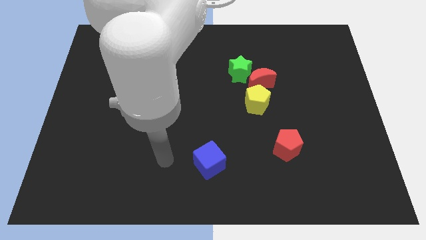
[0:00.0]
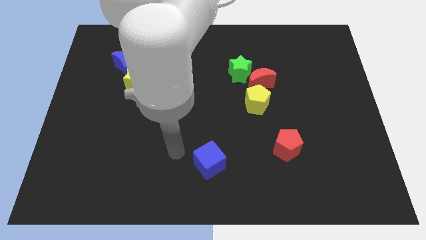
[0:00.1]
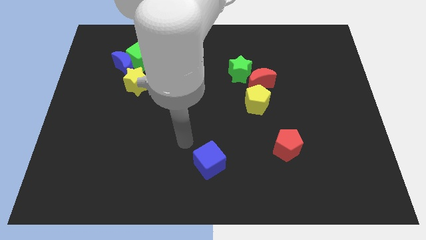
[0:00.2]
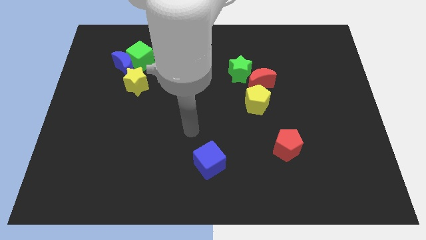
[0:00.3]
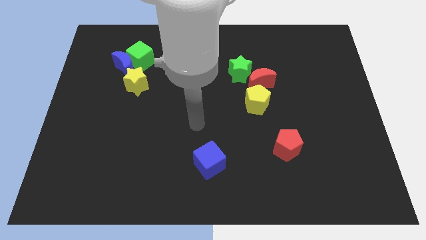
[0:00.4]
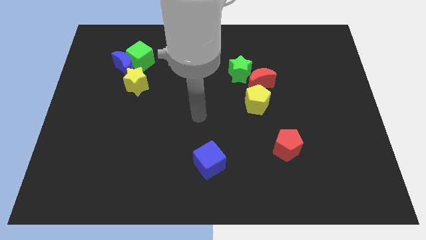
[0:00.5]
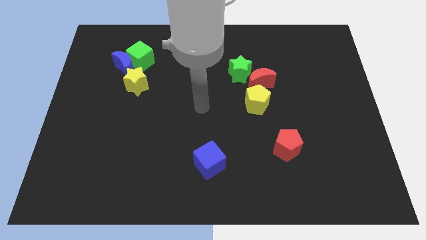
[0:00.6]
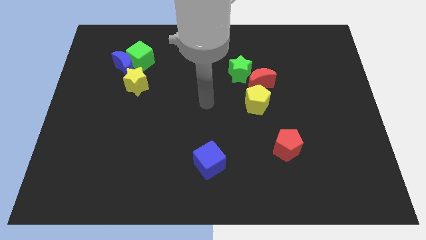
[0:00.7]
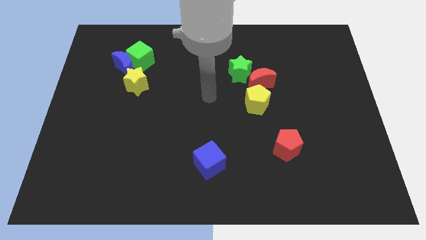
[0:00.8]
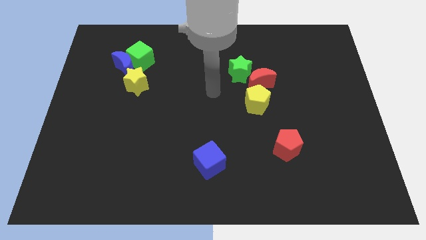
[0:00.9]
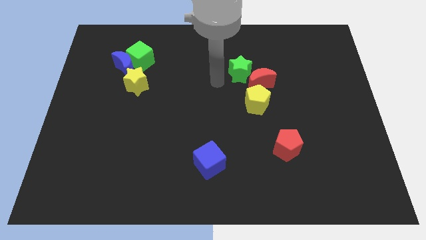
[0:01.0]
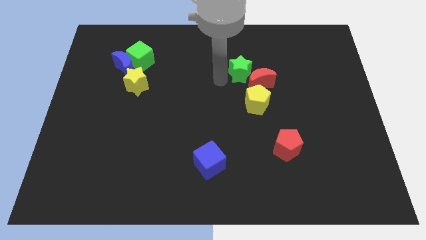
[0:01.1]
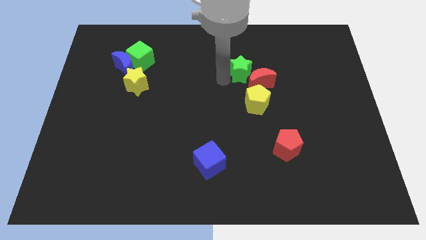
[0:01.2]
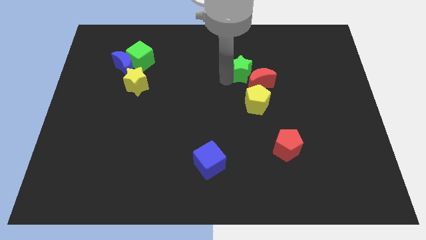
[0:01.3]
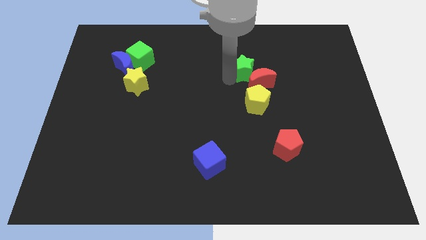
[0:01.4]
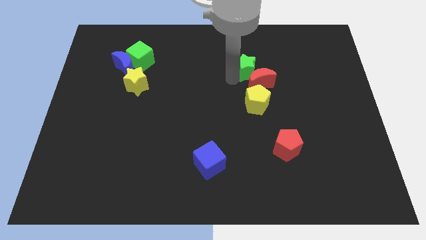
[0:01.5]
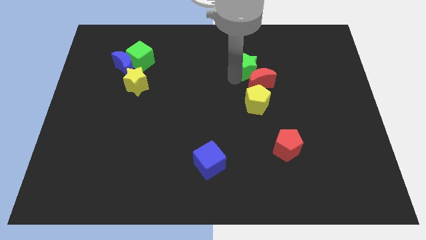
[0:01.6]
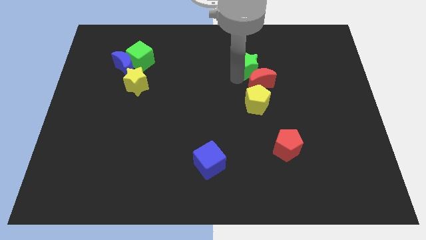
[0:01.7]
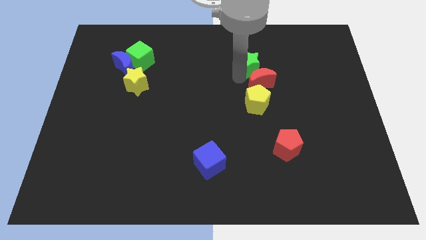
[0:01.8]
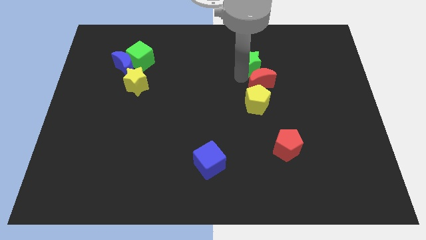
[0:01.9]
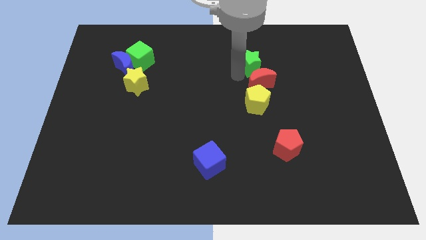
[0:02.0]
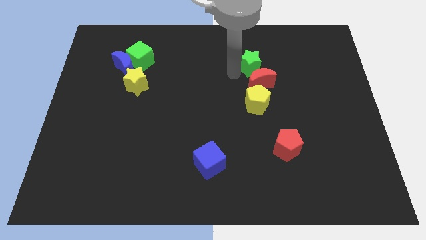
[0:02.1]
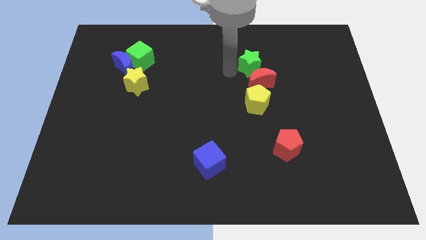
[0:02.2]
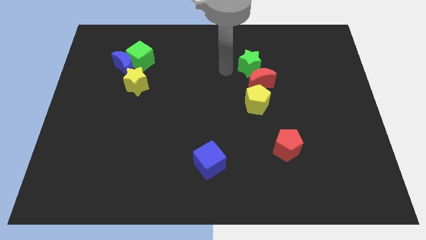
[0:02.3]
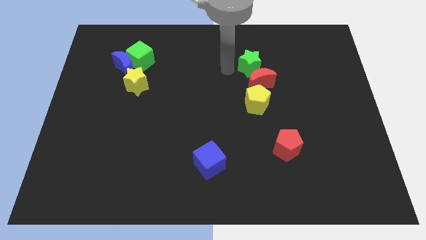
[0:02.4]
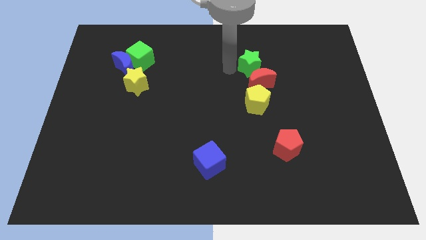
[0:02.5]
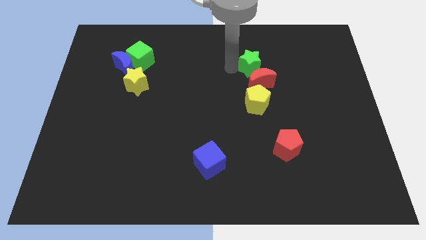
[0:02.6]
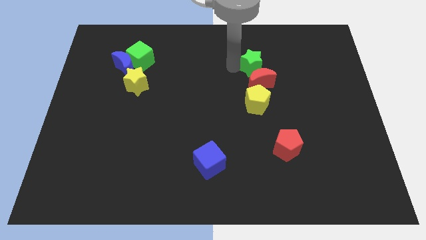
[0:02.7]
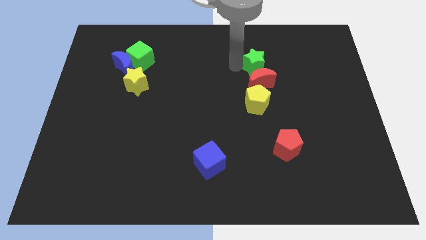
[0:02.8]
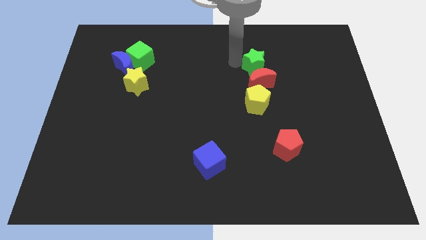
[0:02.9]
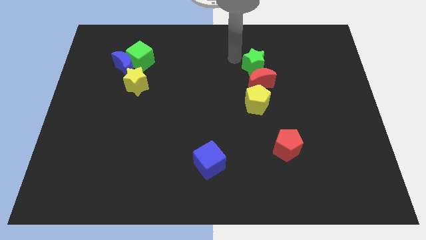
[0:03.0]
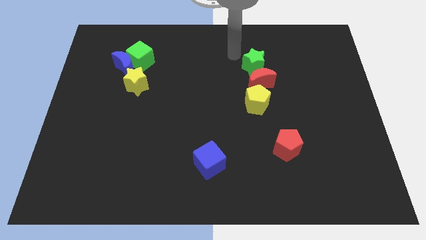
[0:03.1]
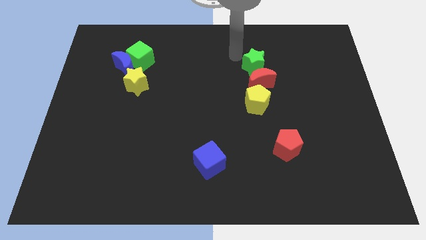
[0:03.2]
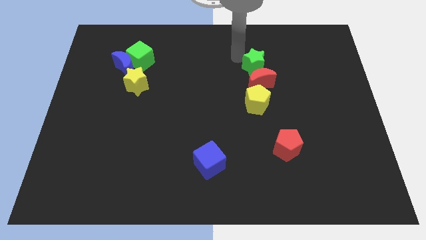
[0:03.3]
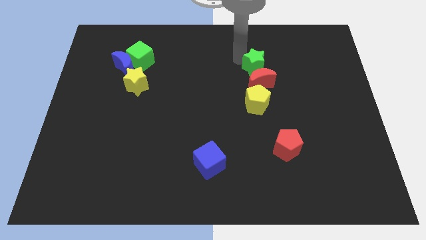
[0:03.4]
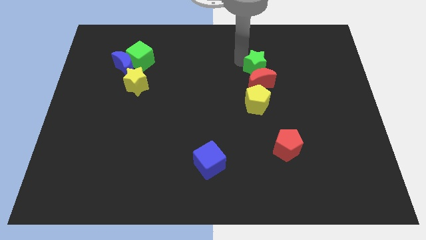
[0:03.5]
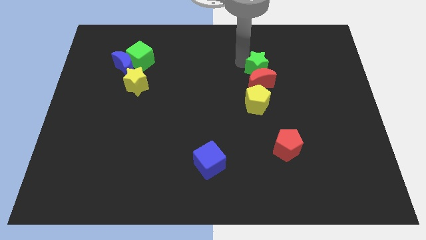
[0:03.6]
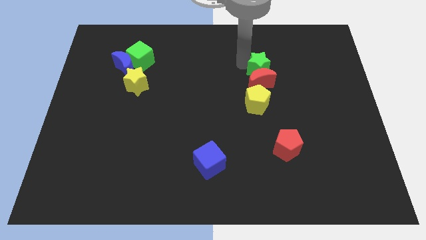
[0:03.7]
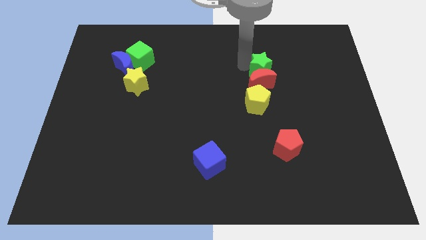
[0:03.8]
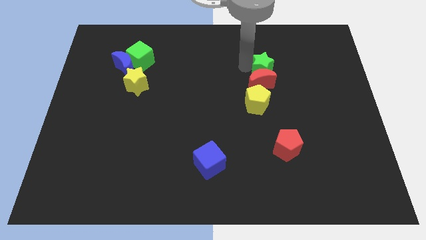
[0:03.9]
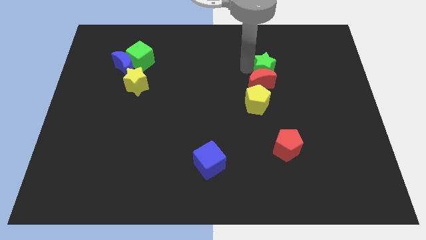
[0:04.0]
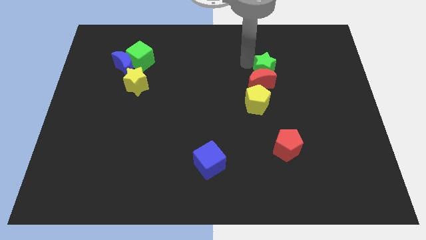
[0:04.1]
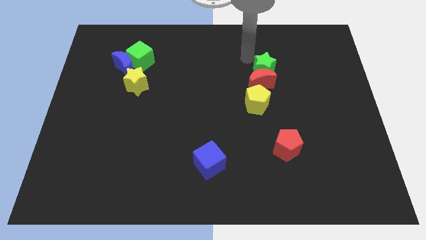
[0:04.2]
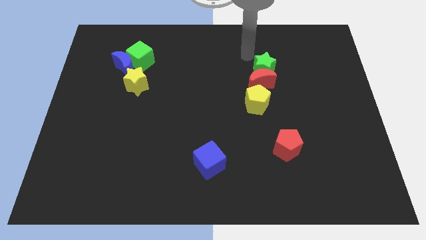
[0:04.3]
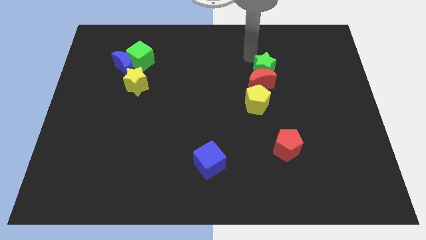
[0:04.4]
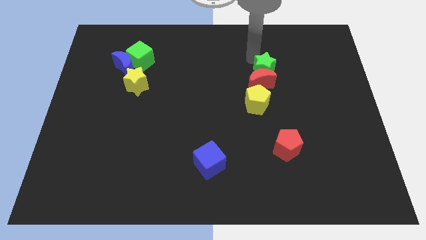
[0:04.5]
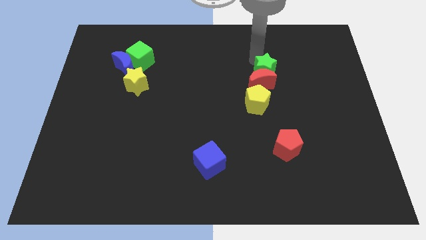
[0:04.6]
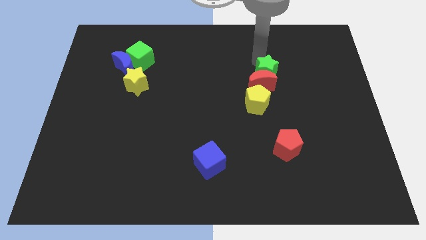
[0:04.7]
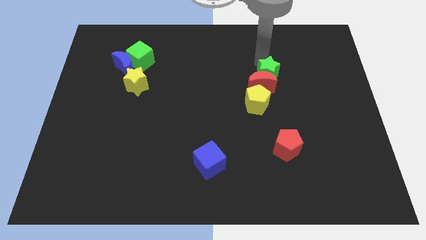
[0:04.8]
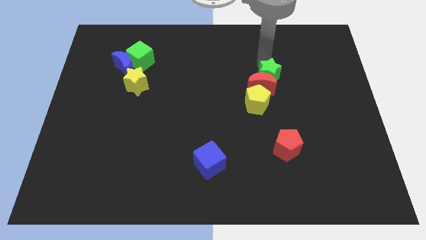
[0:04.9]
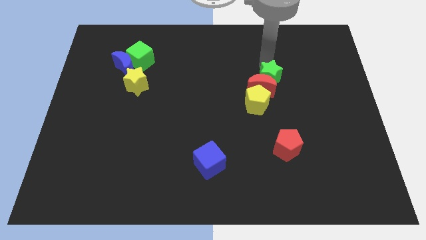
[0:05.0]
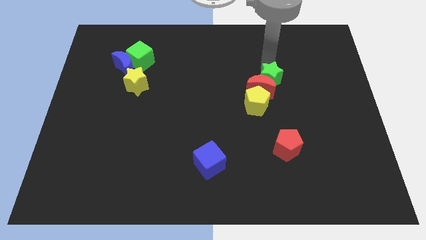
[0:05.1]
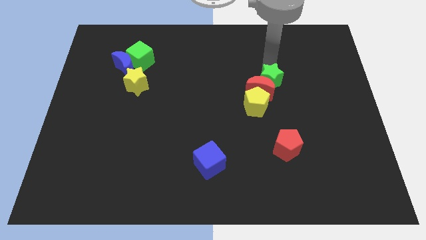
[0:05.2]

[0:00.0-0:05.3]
slide the green star slightly down and to the right diagonally

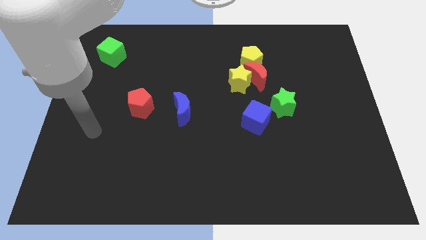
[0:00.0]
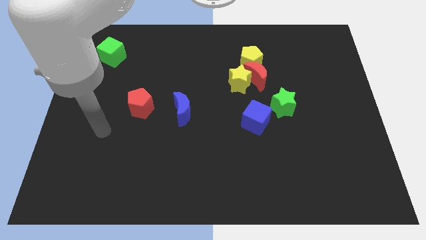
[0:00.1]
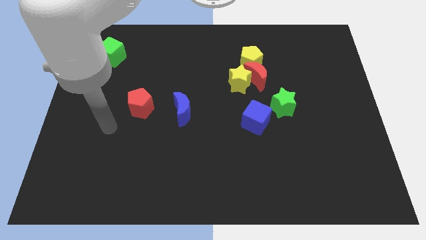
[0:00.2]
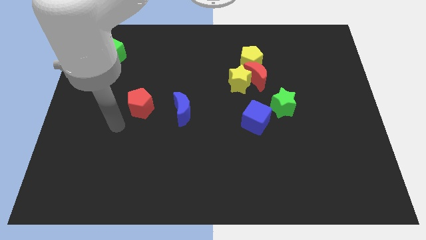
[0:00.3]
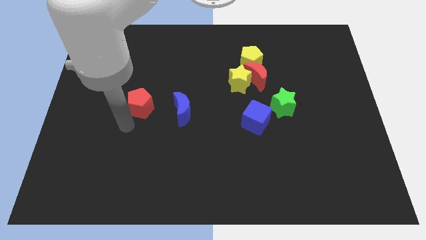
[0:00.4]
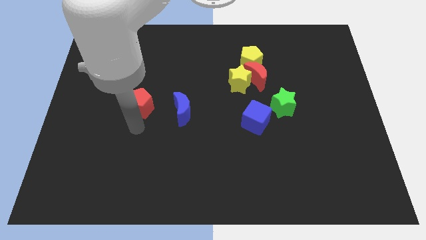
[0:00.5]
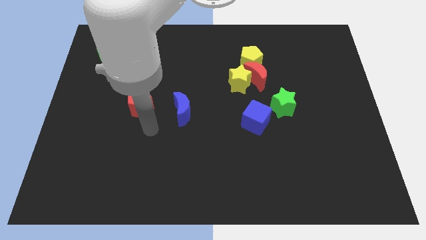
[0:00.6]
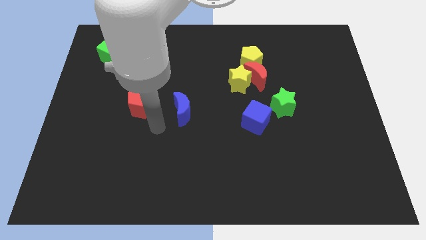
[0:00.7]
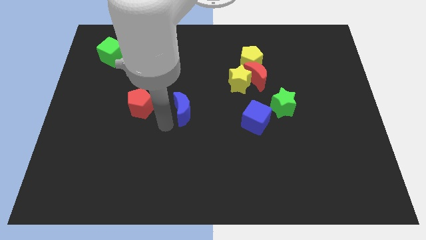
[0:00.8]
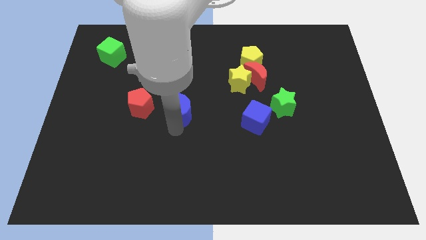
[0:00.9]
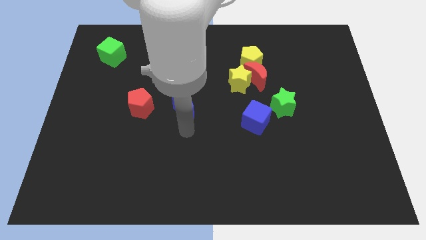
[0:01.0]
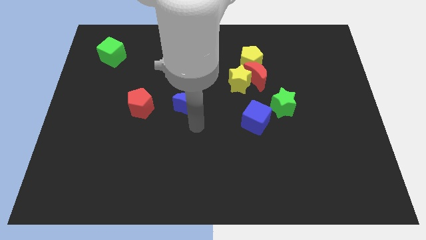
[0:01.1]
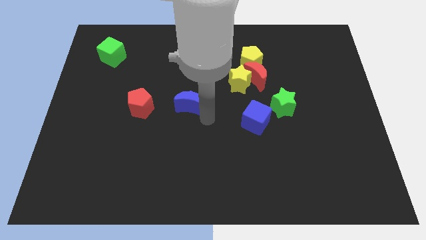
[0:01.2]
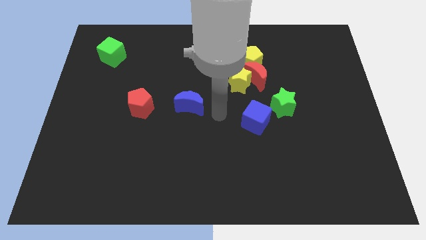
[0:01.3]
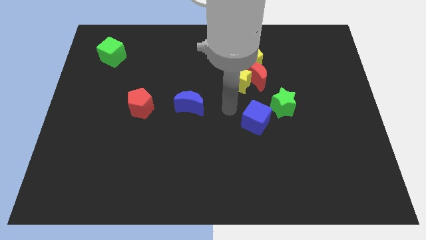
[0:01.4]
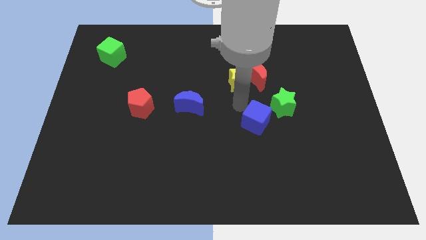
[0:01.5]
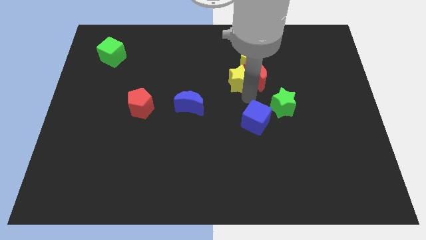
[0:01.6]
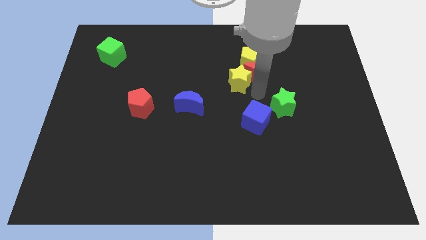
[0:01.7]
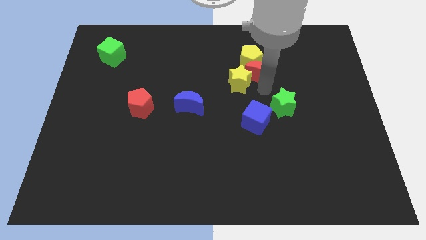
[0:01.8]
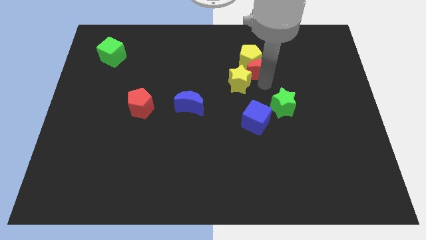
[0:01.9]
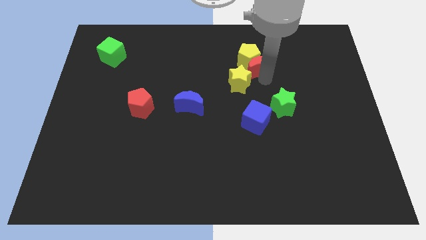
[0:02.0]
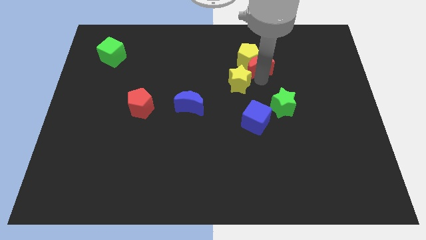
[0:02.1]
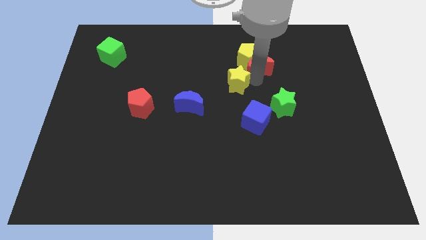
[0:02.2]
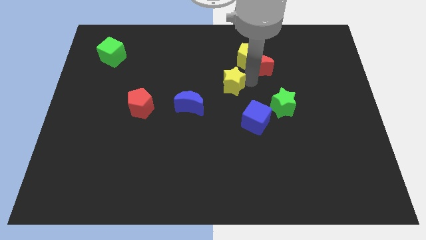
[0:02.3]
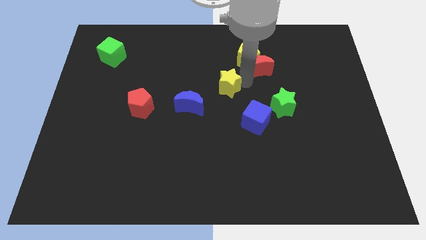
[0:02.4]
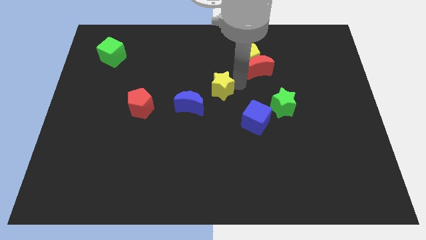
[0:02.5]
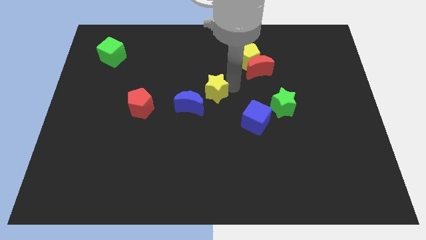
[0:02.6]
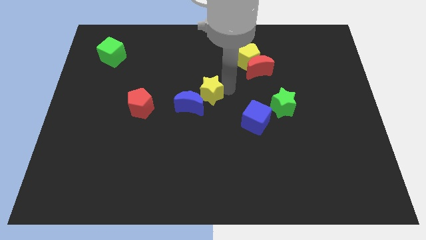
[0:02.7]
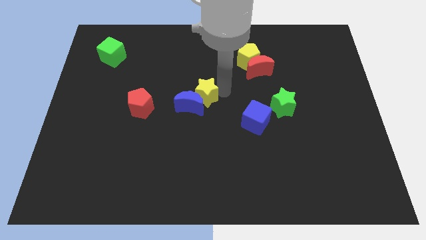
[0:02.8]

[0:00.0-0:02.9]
slightly slide the yellow star to the left
